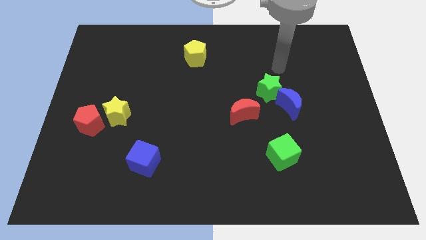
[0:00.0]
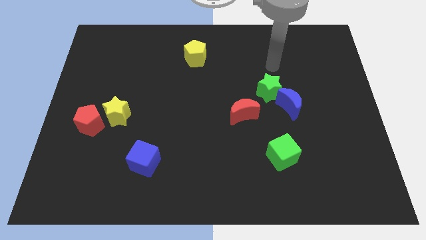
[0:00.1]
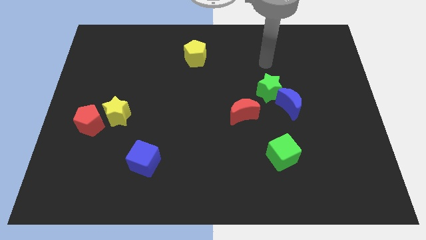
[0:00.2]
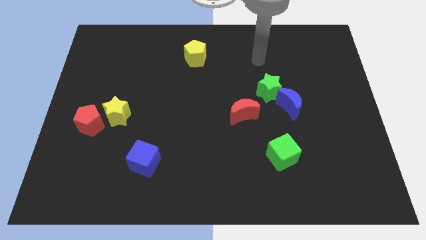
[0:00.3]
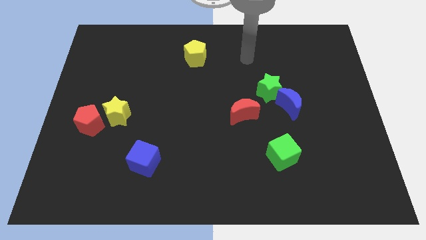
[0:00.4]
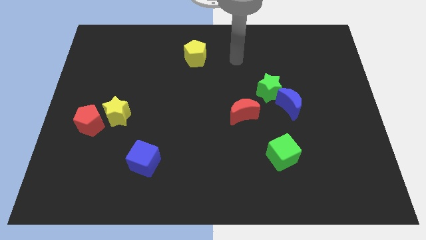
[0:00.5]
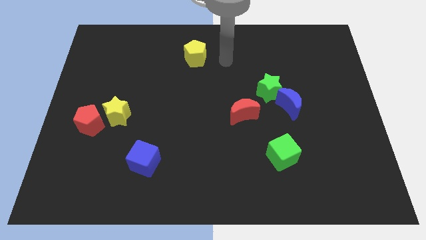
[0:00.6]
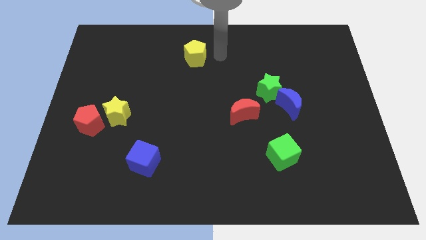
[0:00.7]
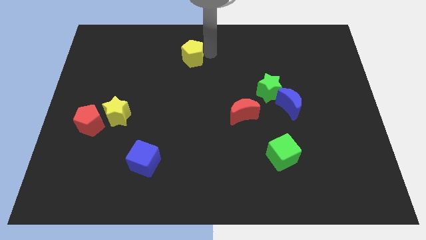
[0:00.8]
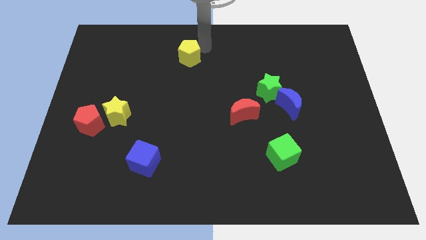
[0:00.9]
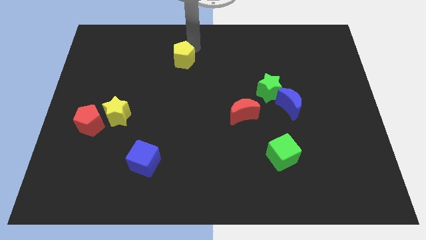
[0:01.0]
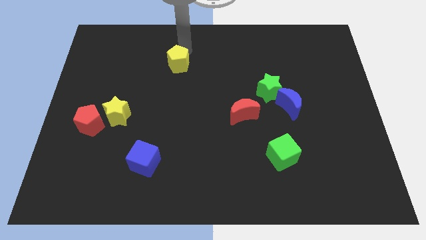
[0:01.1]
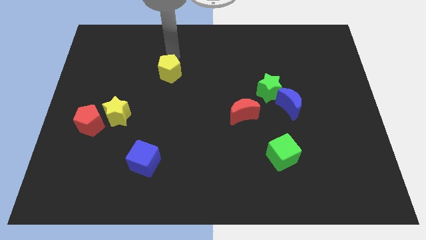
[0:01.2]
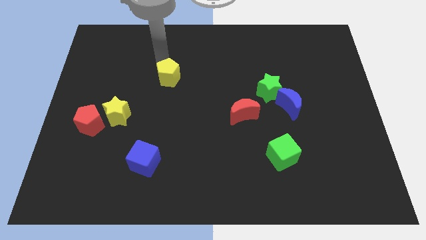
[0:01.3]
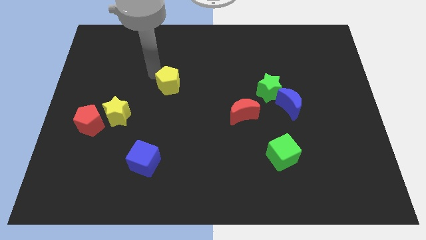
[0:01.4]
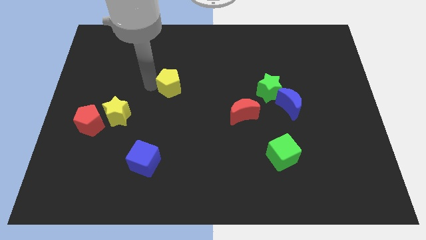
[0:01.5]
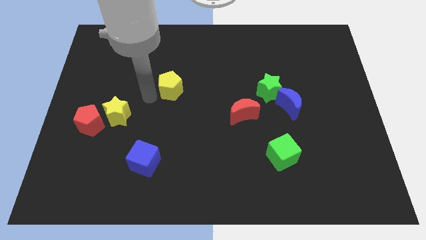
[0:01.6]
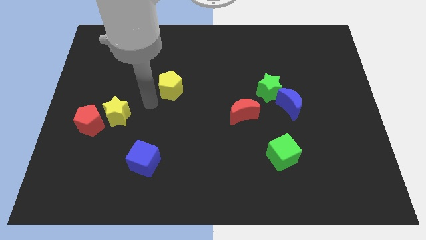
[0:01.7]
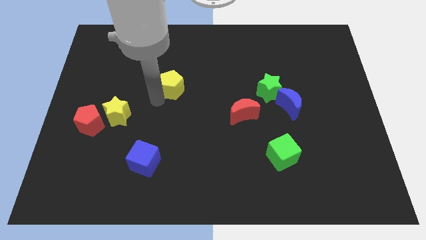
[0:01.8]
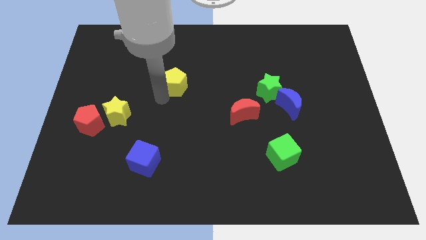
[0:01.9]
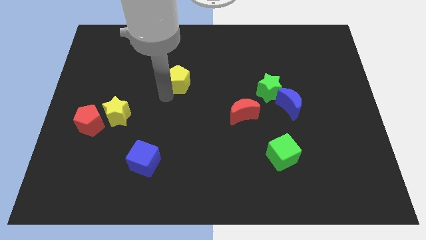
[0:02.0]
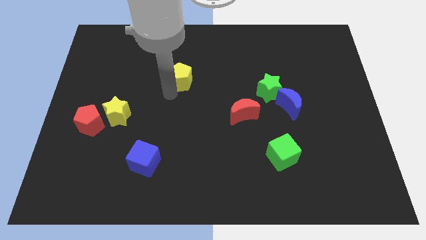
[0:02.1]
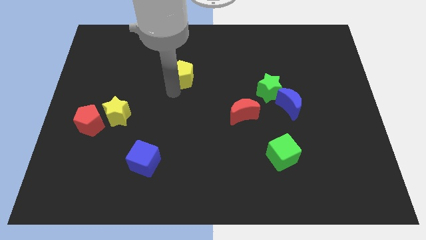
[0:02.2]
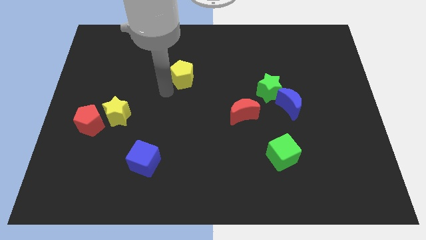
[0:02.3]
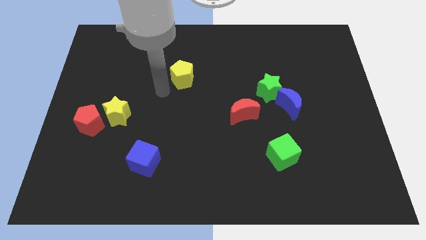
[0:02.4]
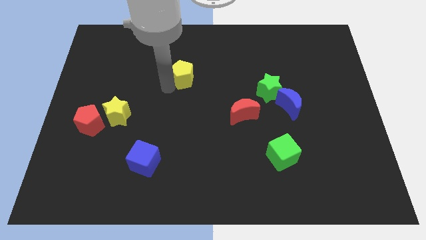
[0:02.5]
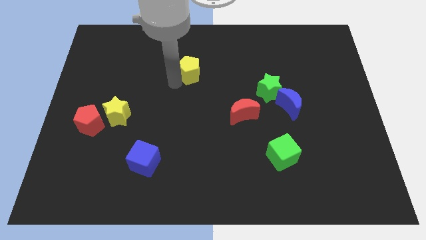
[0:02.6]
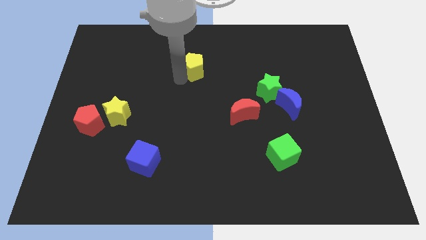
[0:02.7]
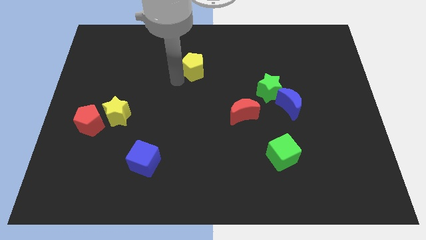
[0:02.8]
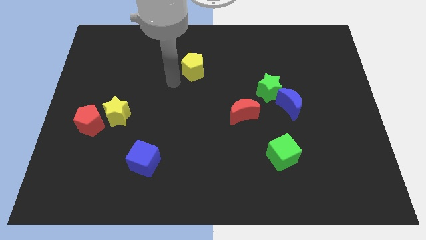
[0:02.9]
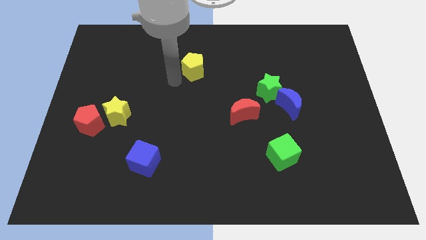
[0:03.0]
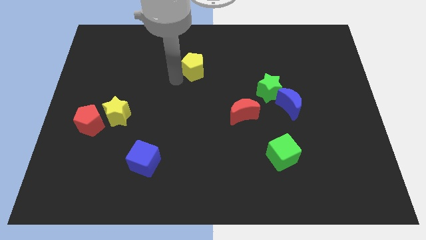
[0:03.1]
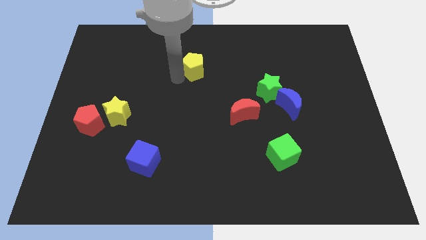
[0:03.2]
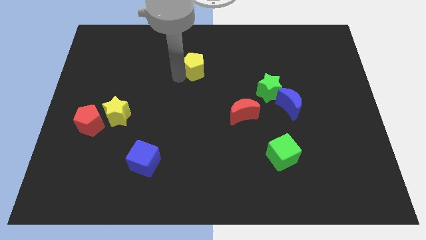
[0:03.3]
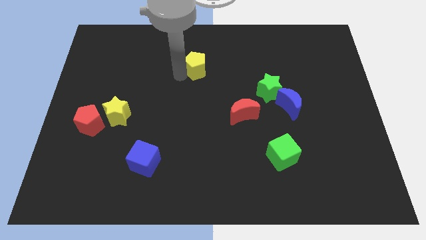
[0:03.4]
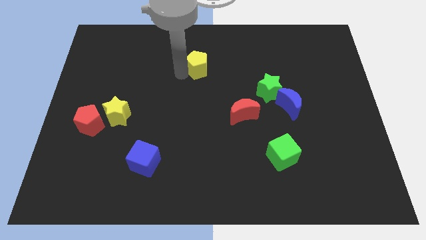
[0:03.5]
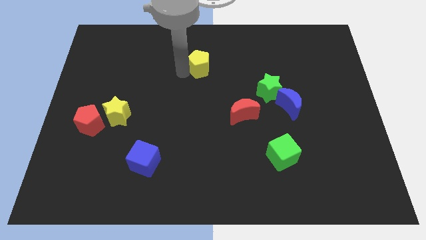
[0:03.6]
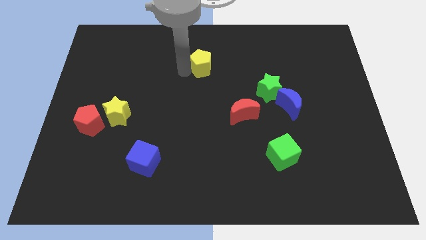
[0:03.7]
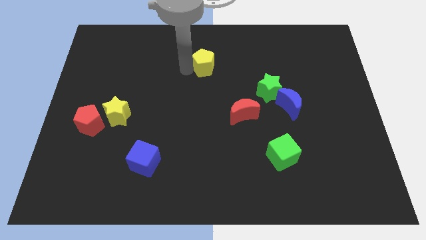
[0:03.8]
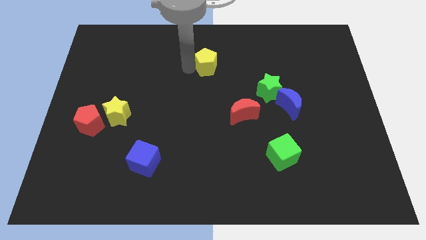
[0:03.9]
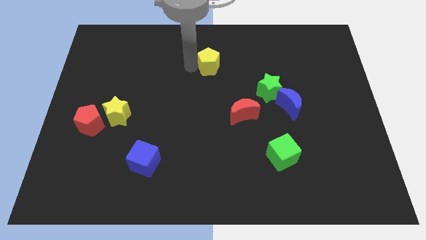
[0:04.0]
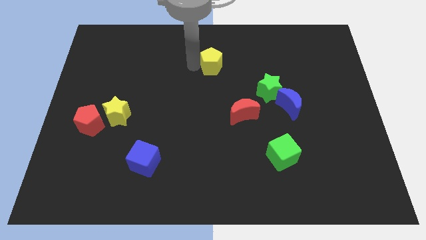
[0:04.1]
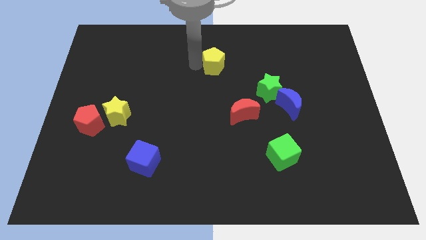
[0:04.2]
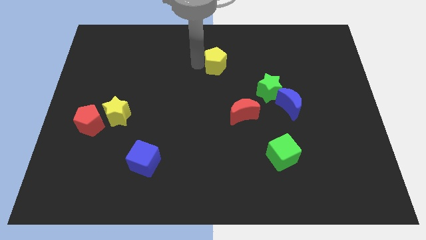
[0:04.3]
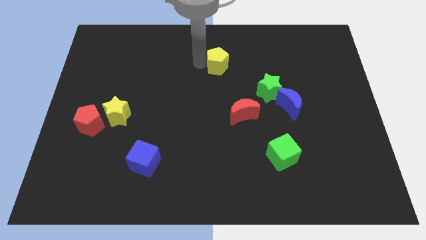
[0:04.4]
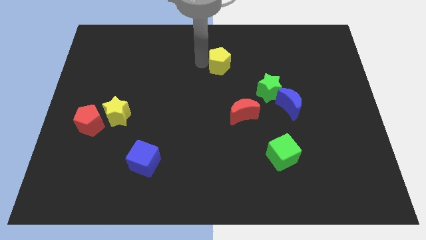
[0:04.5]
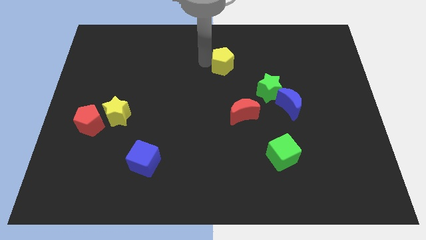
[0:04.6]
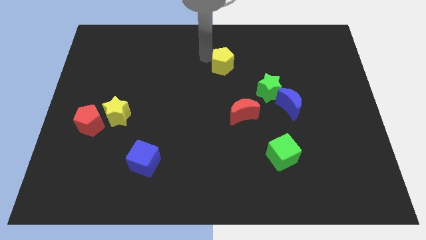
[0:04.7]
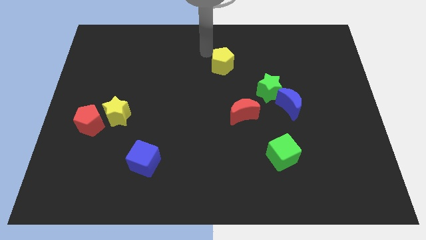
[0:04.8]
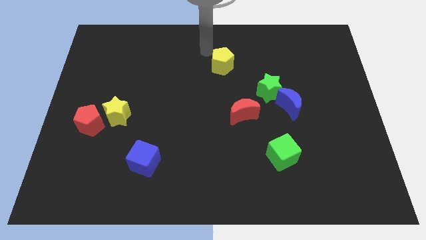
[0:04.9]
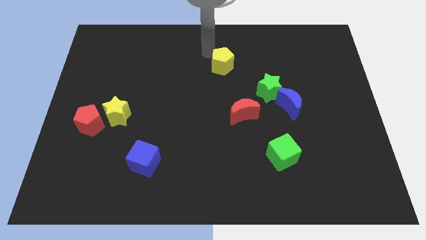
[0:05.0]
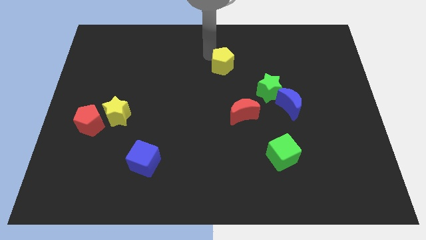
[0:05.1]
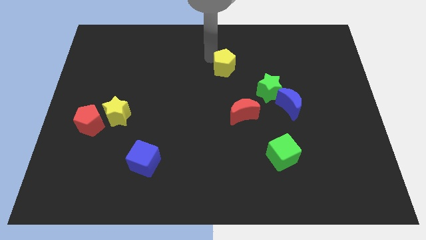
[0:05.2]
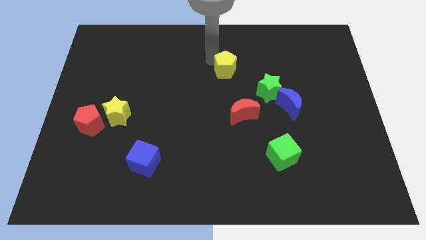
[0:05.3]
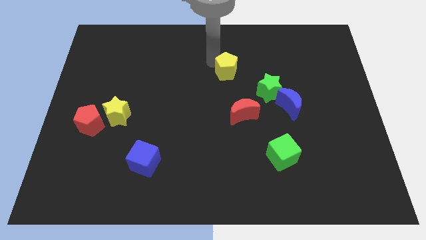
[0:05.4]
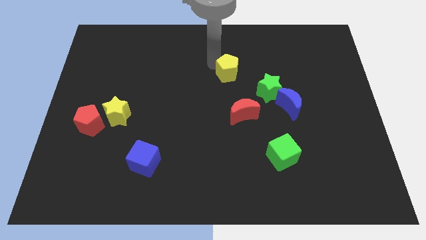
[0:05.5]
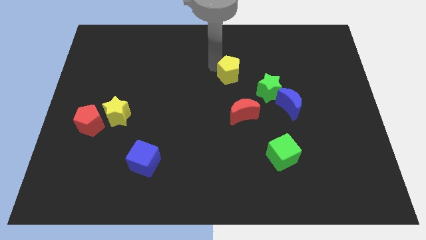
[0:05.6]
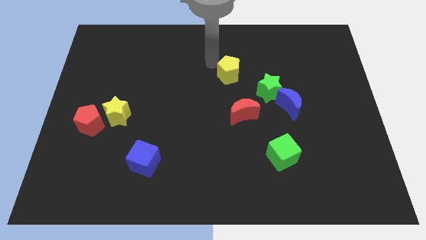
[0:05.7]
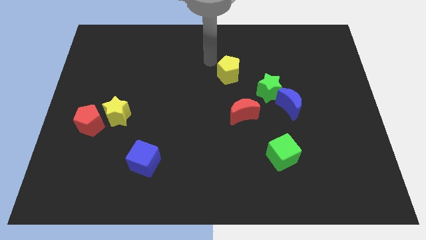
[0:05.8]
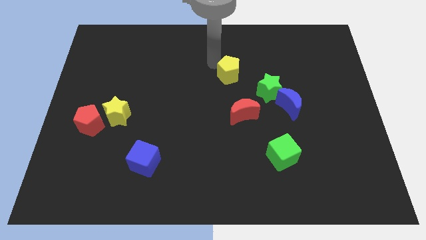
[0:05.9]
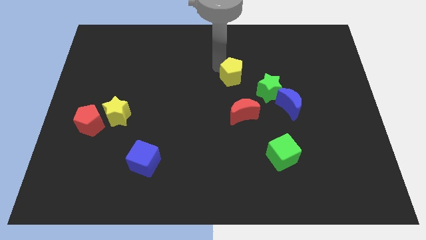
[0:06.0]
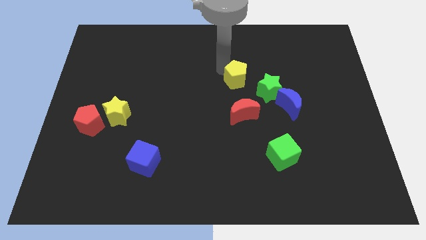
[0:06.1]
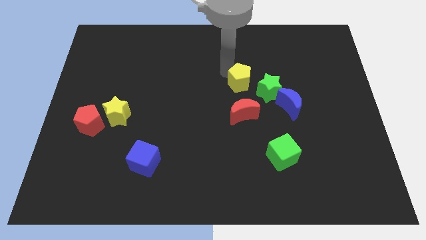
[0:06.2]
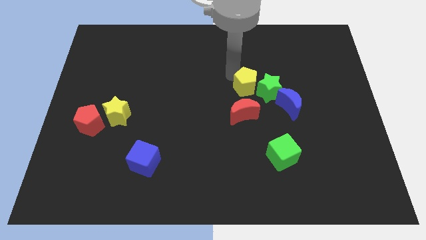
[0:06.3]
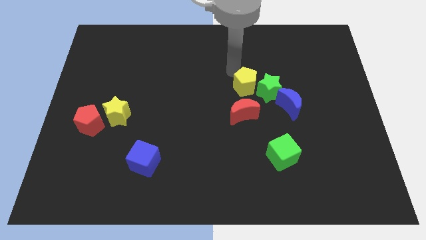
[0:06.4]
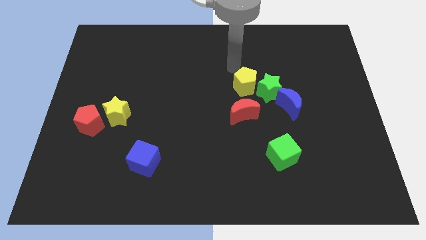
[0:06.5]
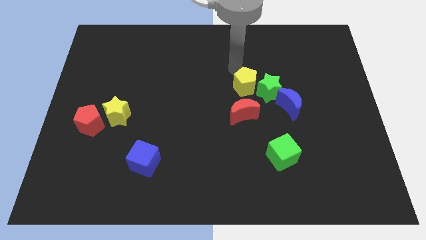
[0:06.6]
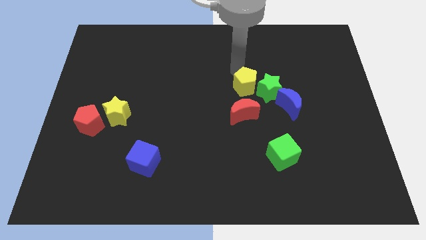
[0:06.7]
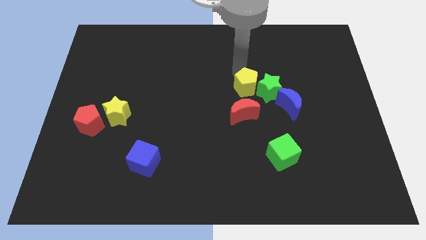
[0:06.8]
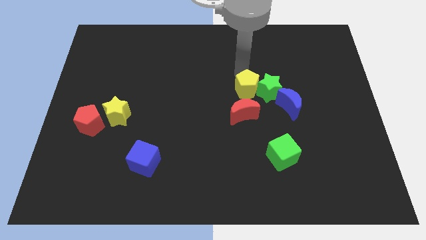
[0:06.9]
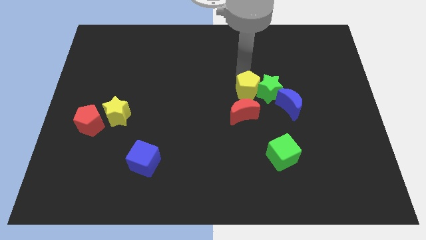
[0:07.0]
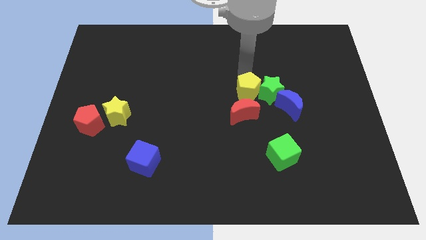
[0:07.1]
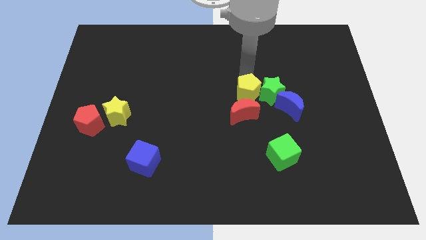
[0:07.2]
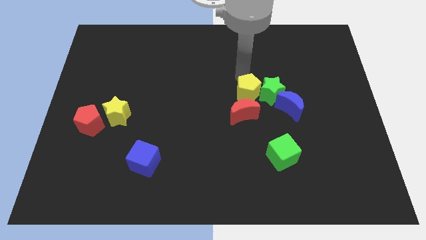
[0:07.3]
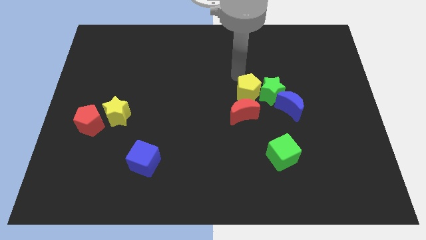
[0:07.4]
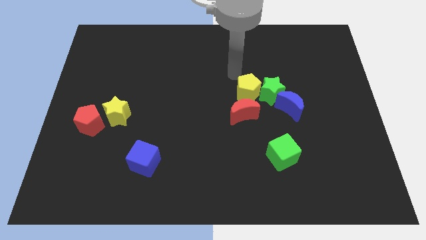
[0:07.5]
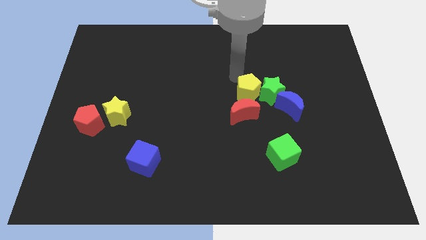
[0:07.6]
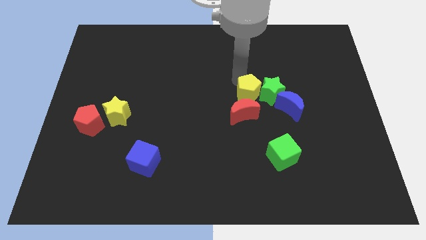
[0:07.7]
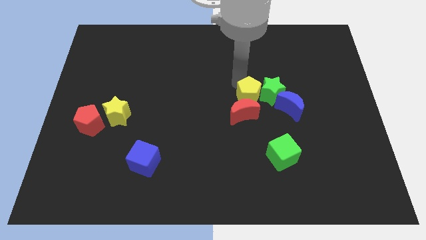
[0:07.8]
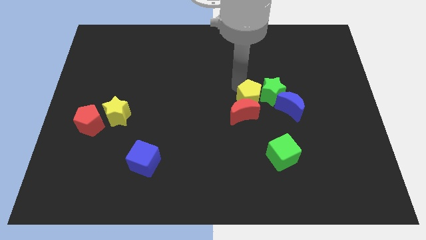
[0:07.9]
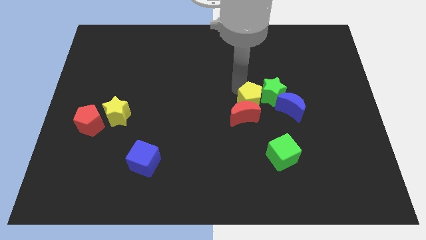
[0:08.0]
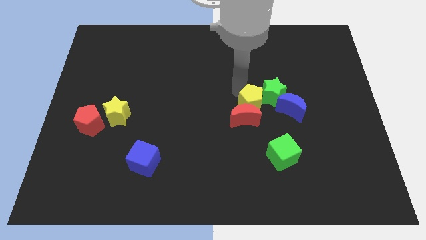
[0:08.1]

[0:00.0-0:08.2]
slide the yellow pentagon downwards and then right
